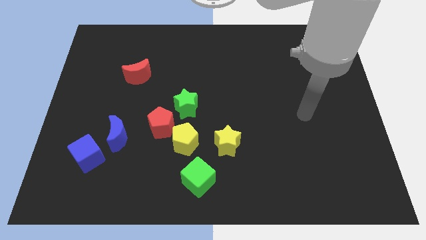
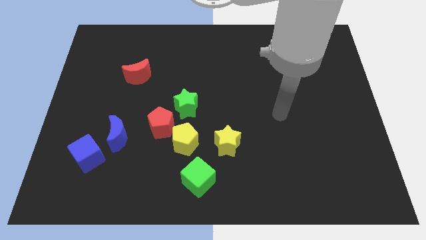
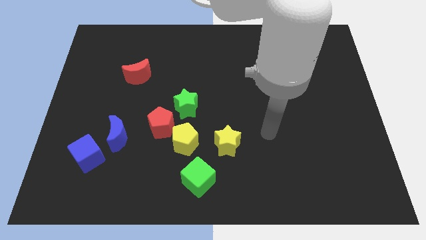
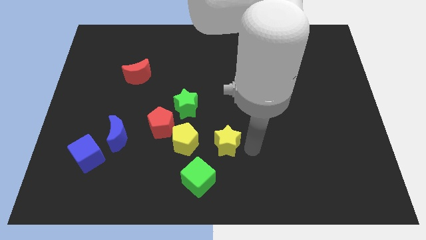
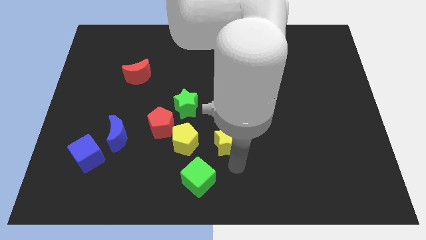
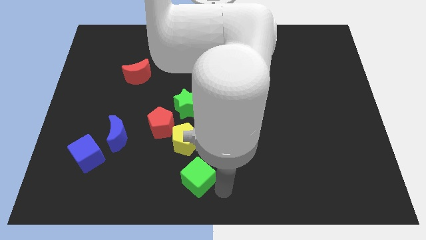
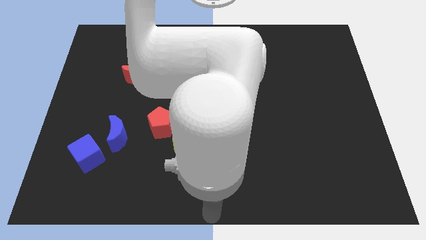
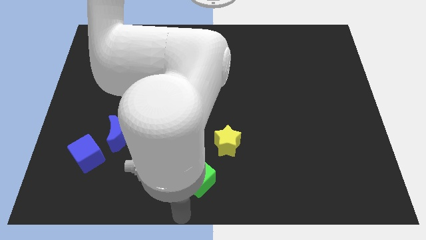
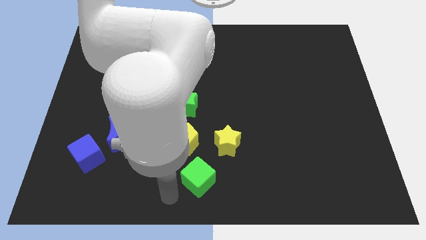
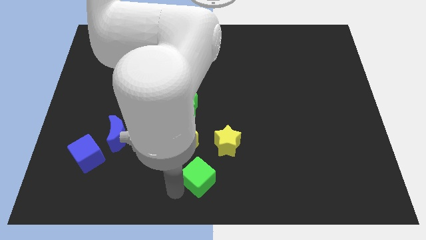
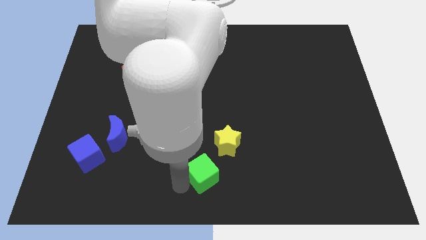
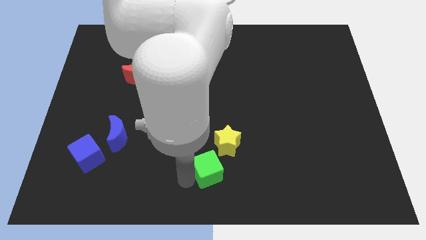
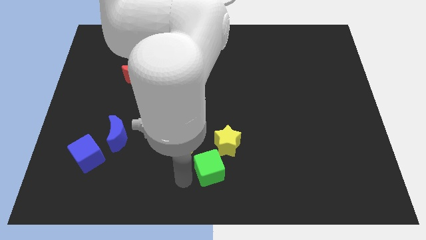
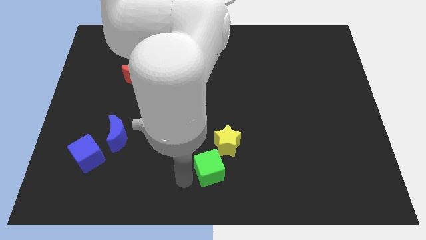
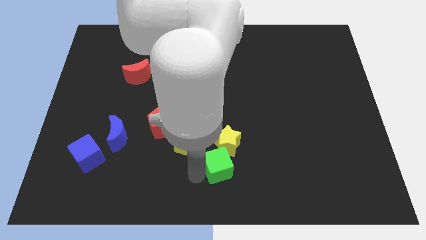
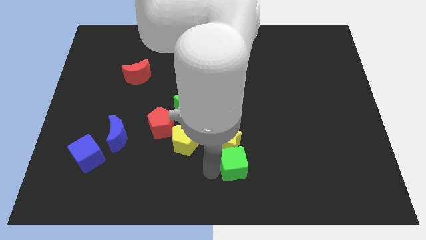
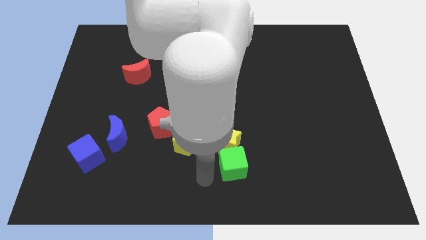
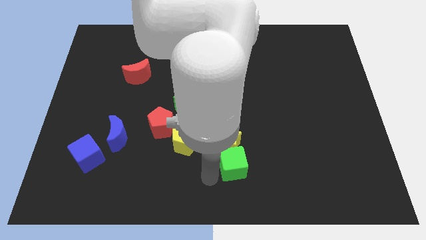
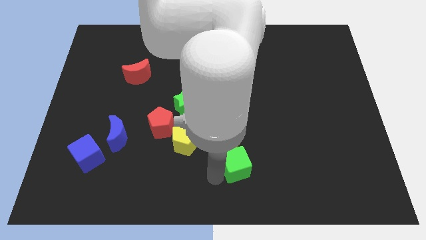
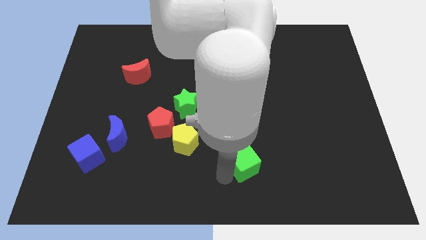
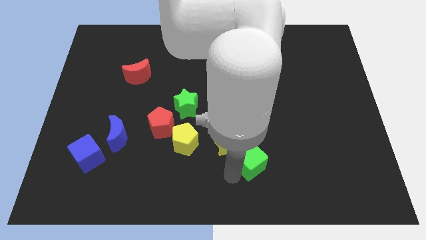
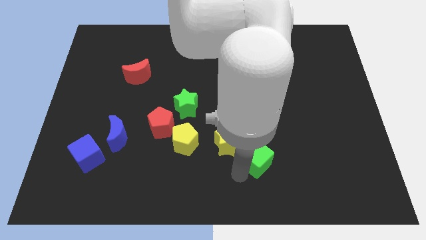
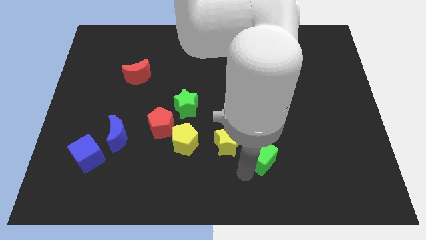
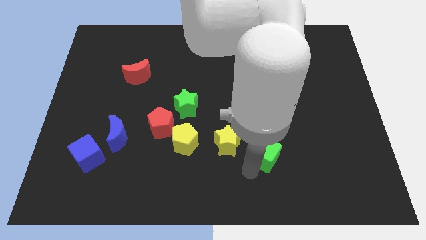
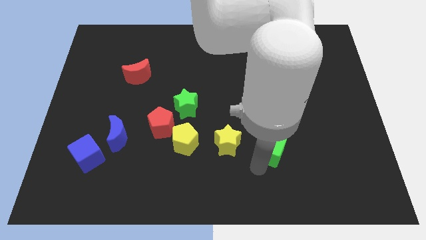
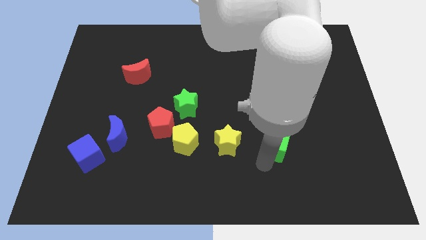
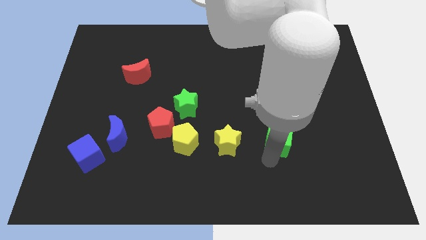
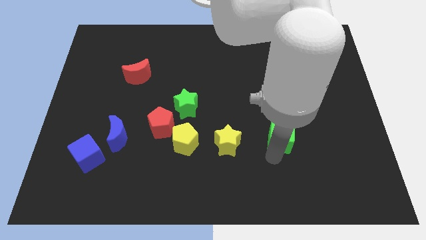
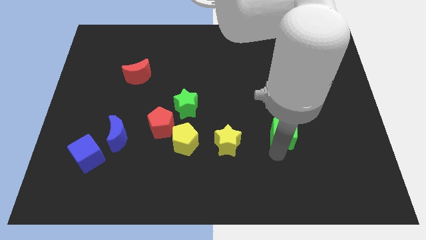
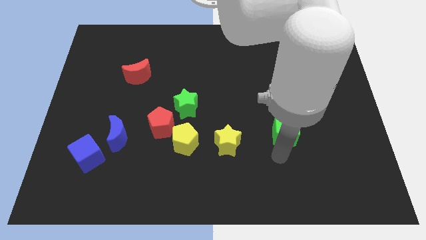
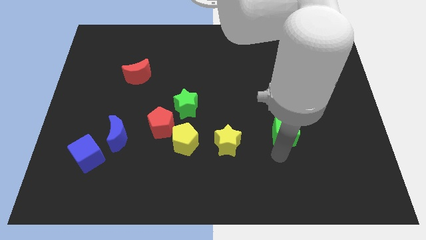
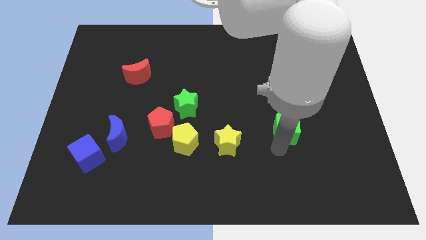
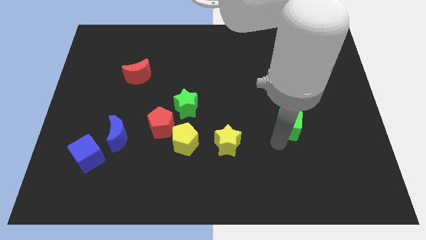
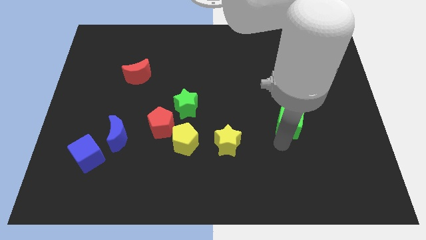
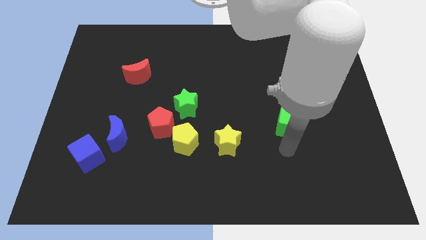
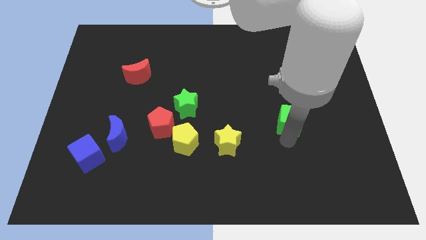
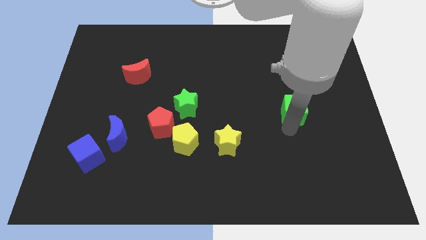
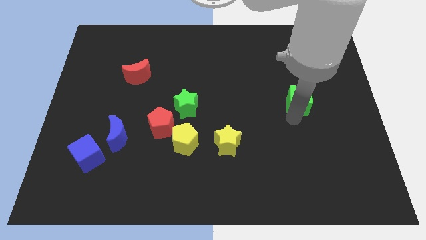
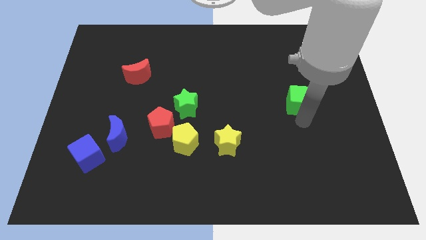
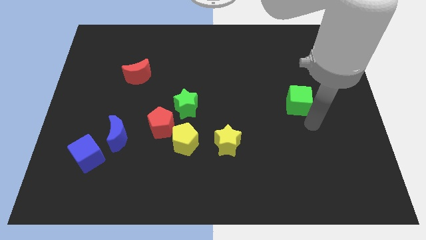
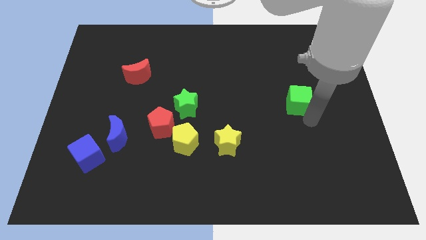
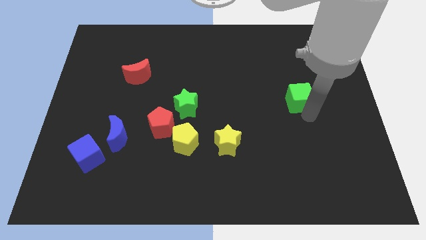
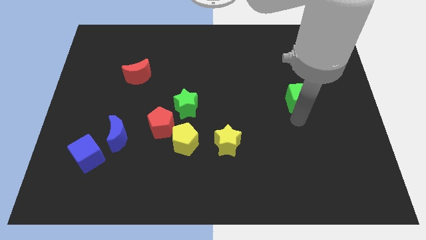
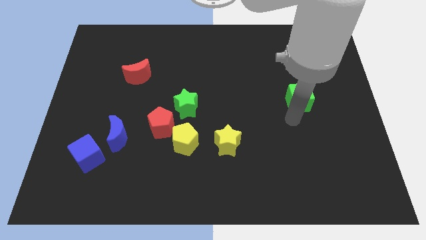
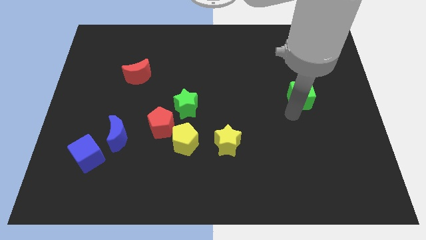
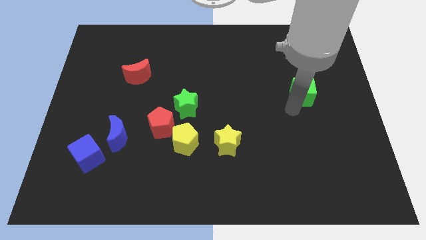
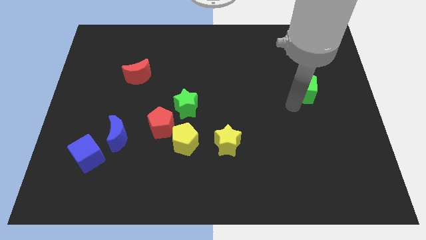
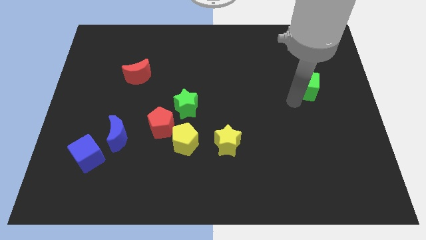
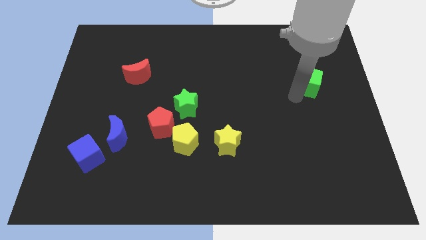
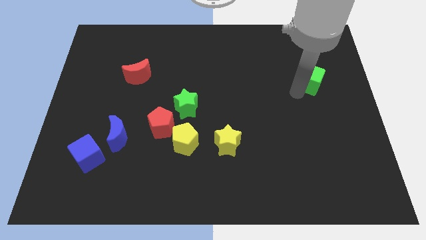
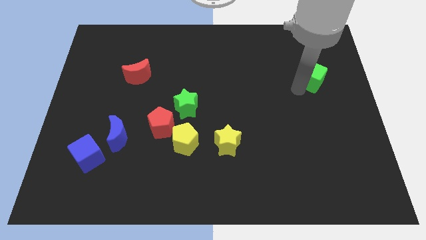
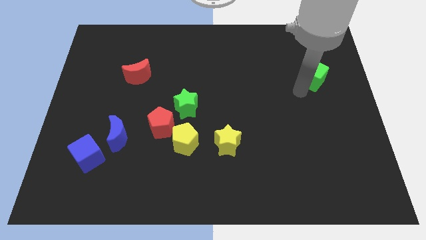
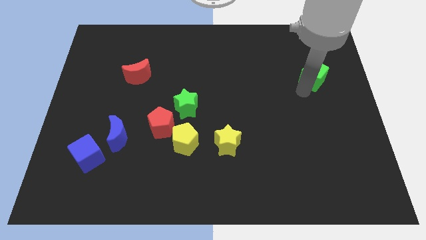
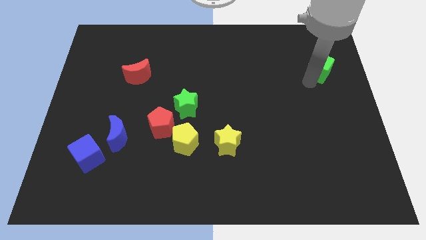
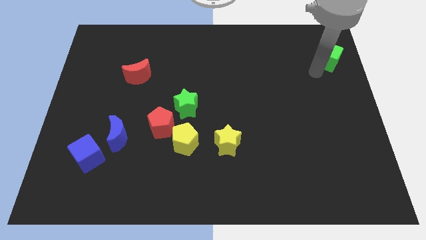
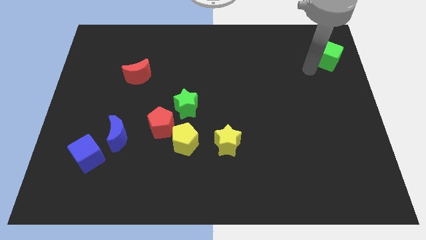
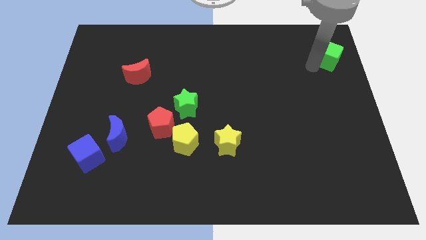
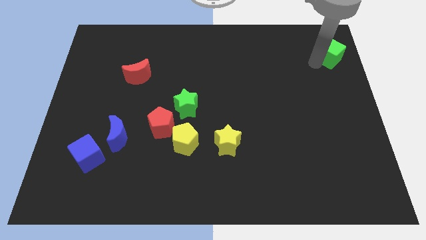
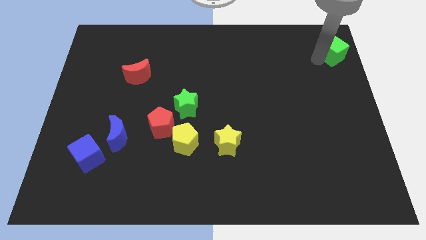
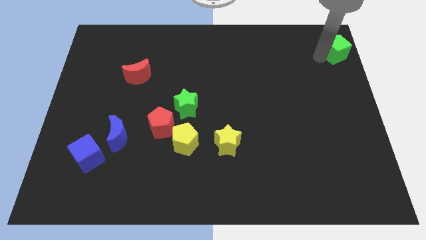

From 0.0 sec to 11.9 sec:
move the green cube to the top right of the board

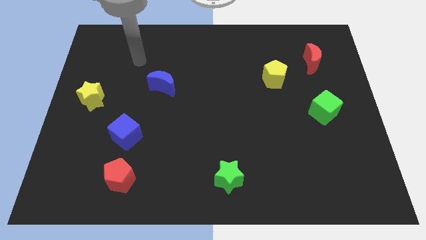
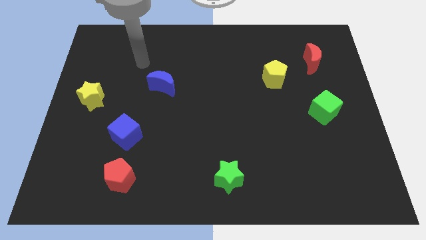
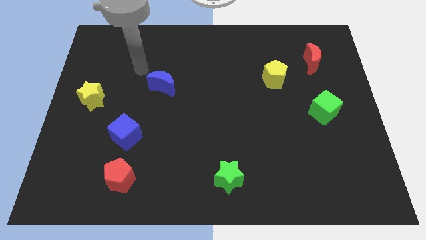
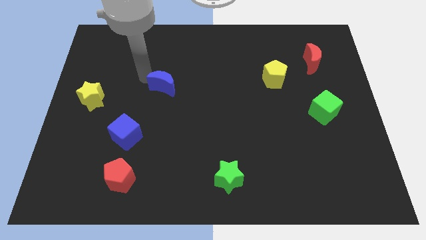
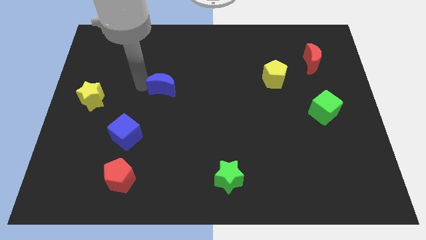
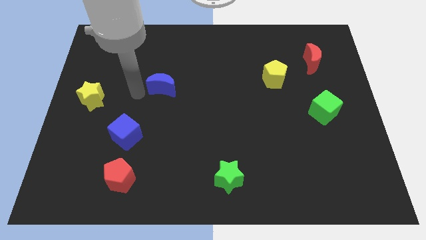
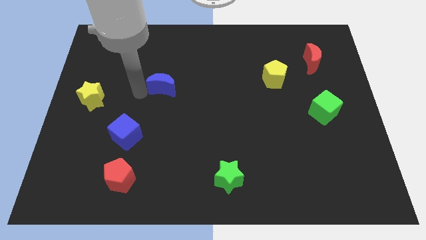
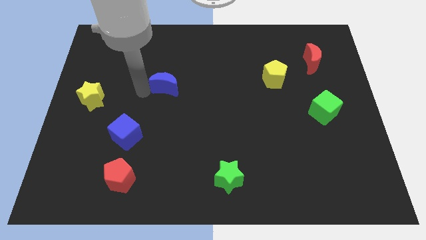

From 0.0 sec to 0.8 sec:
push the blue moon to the middle
